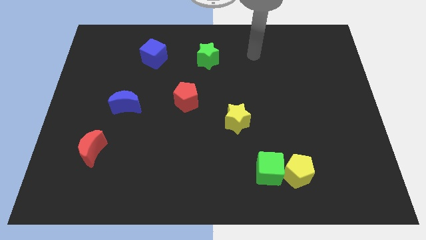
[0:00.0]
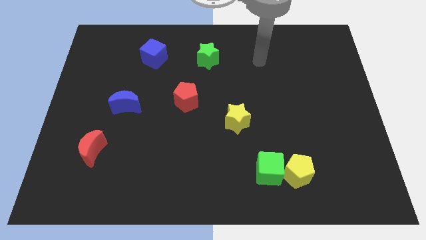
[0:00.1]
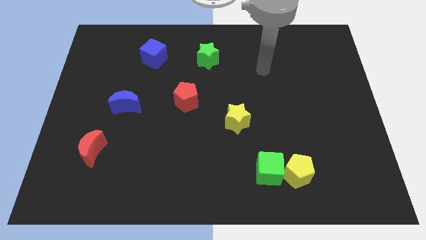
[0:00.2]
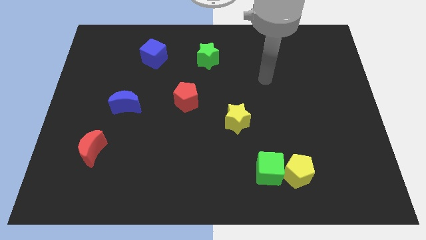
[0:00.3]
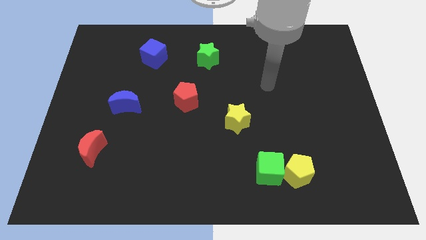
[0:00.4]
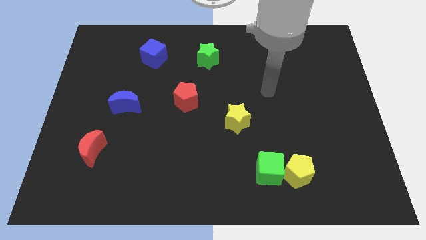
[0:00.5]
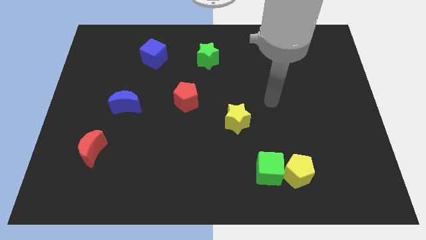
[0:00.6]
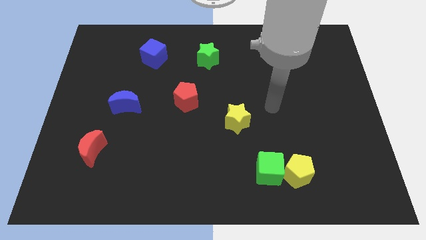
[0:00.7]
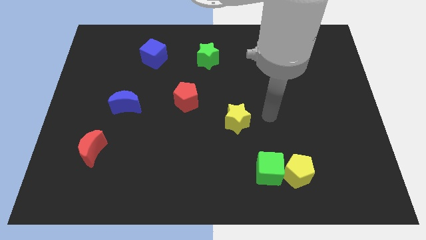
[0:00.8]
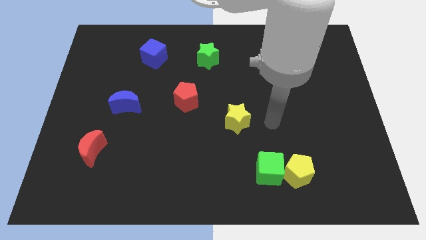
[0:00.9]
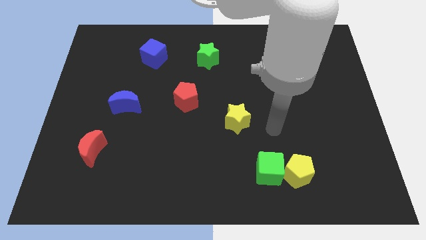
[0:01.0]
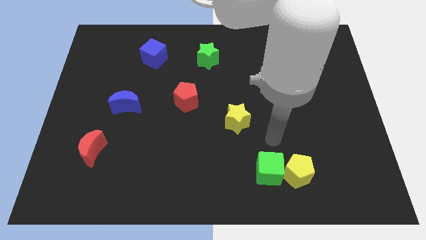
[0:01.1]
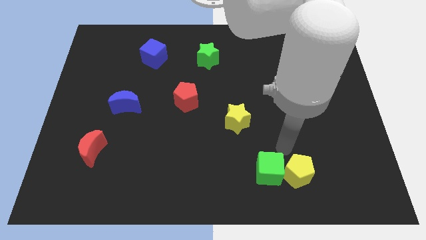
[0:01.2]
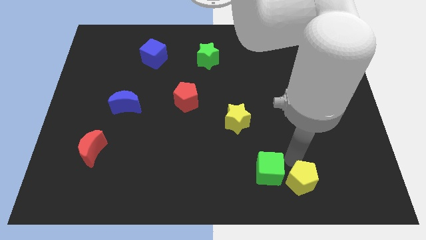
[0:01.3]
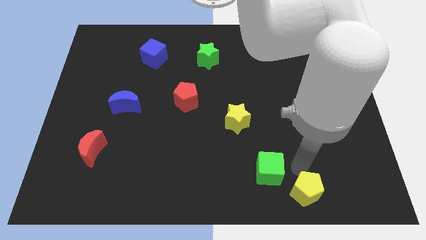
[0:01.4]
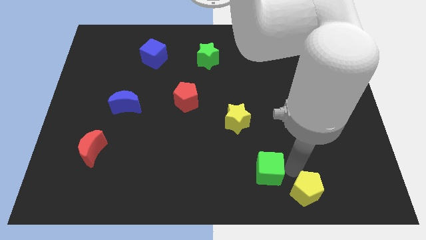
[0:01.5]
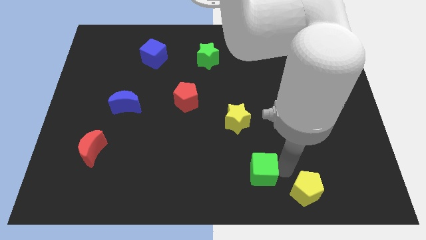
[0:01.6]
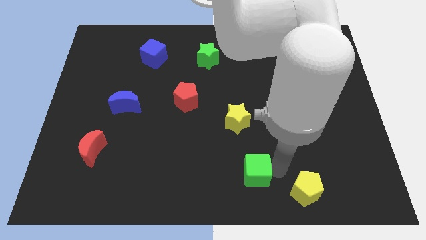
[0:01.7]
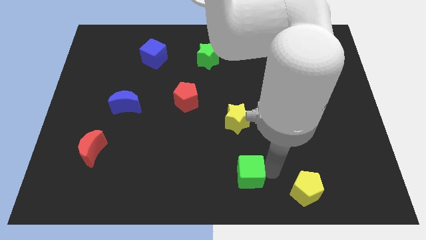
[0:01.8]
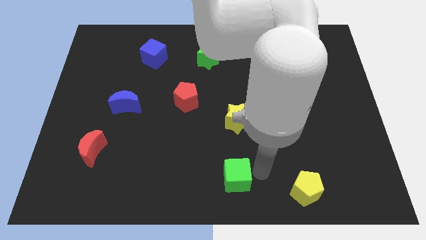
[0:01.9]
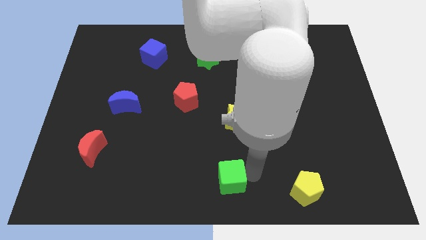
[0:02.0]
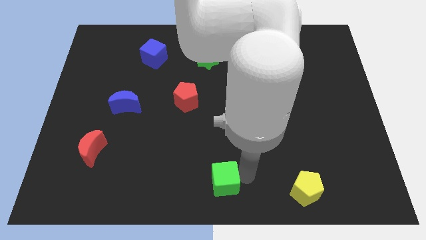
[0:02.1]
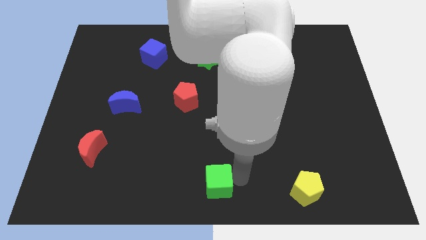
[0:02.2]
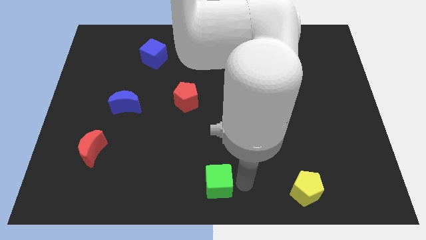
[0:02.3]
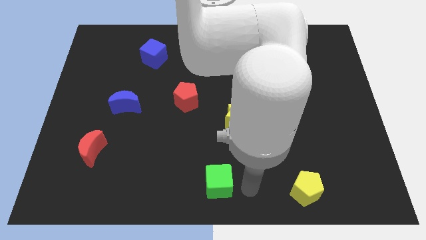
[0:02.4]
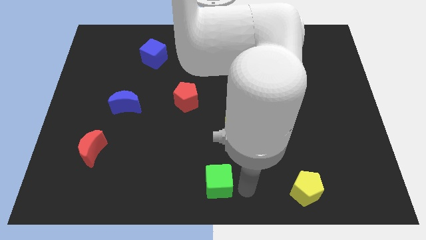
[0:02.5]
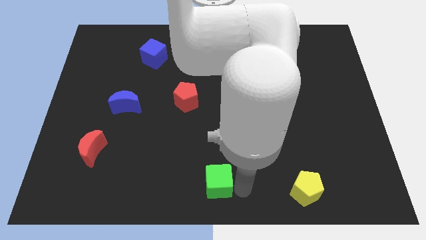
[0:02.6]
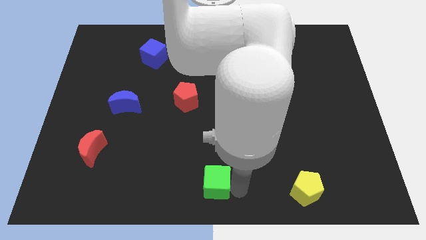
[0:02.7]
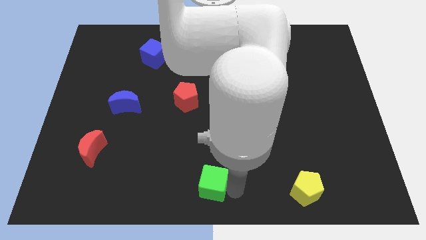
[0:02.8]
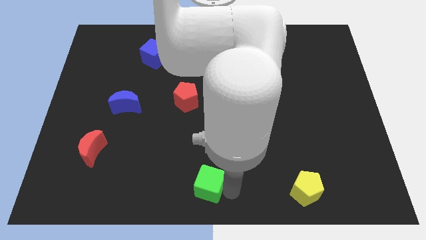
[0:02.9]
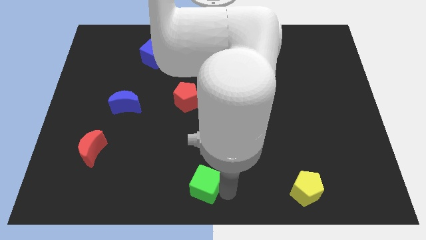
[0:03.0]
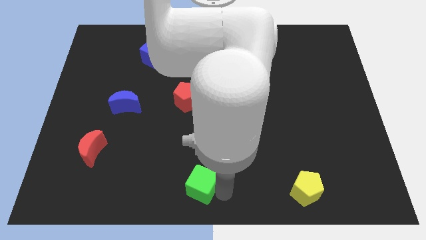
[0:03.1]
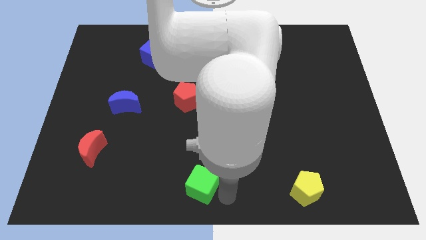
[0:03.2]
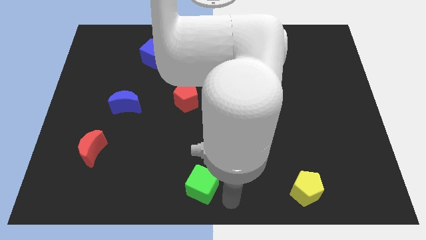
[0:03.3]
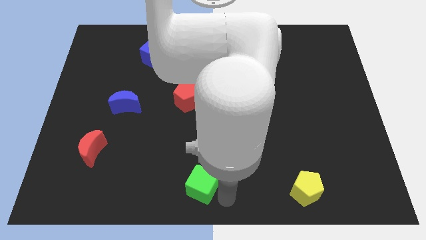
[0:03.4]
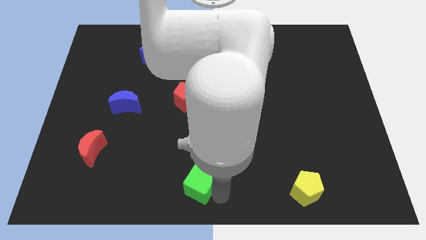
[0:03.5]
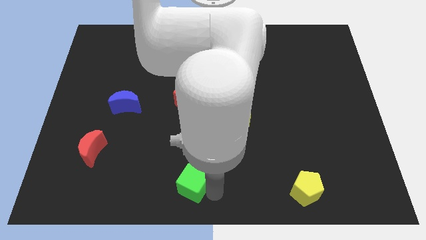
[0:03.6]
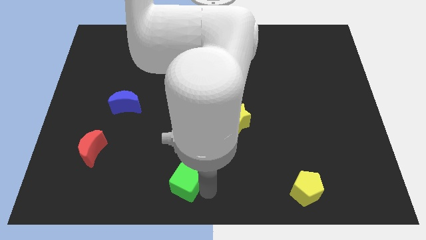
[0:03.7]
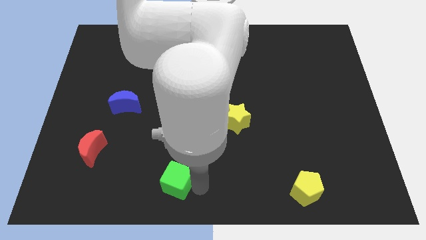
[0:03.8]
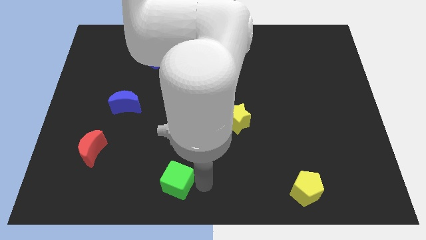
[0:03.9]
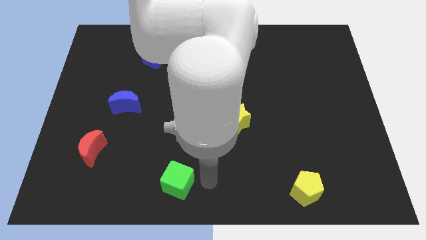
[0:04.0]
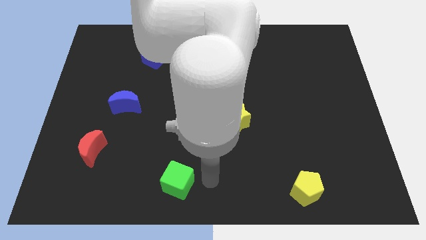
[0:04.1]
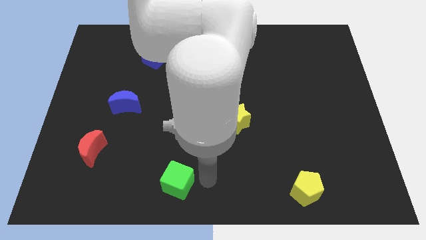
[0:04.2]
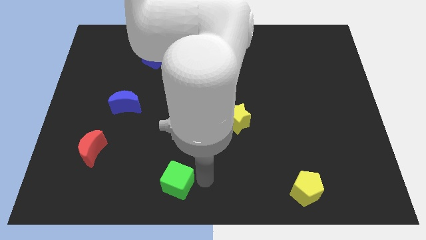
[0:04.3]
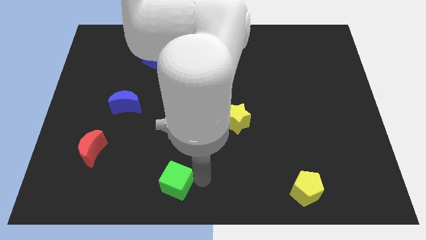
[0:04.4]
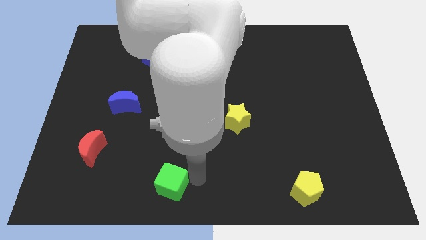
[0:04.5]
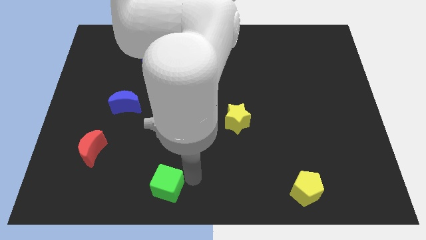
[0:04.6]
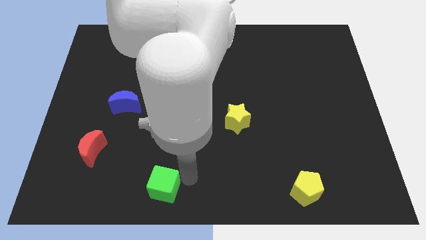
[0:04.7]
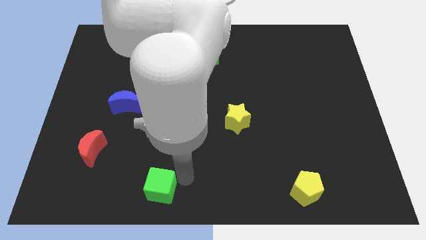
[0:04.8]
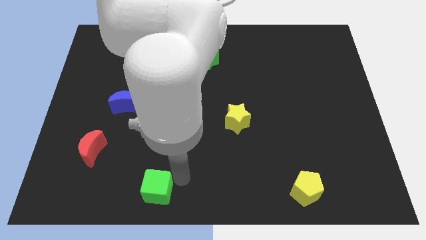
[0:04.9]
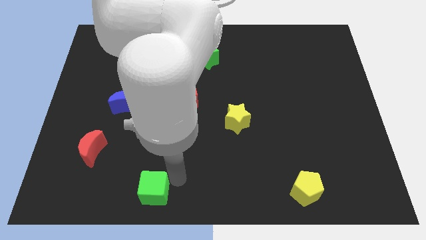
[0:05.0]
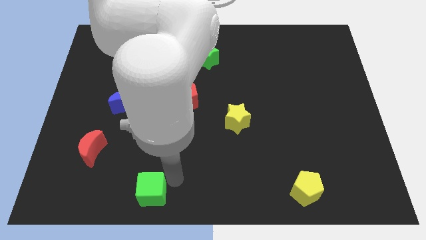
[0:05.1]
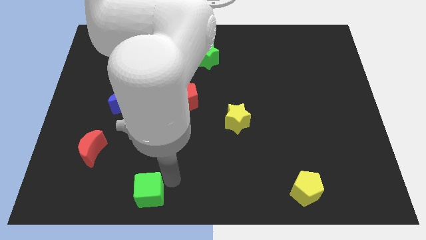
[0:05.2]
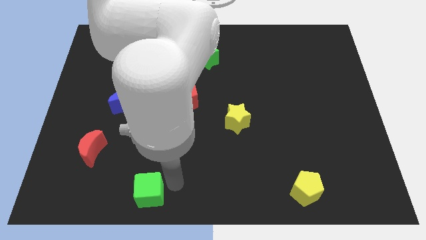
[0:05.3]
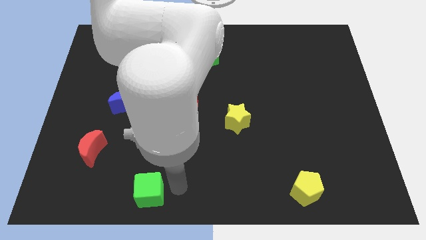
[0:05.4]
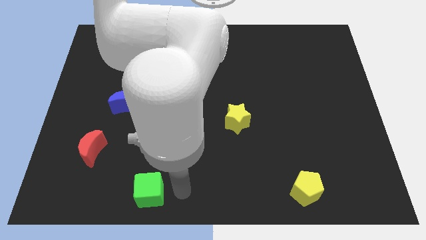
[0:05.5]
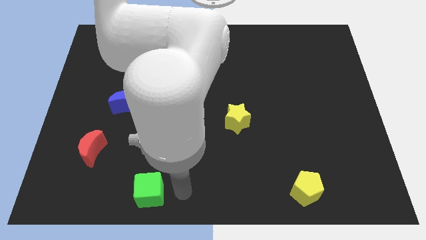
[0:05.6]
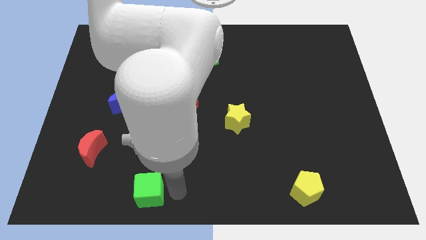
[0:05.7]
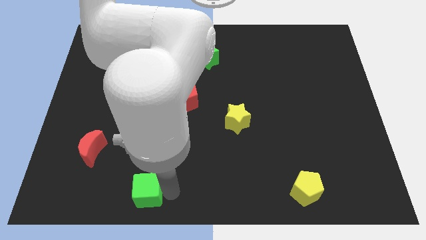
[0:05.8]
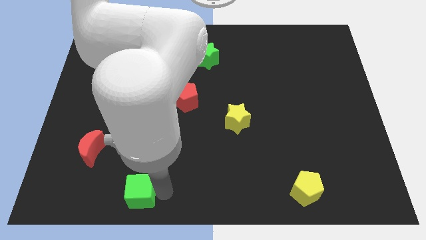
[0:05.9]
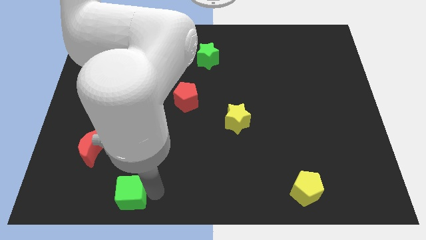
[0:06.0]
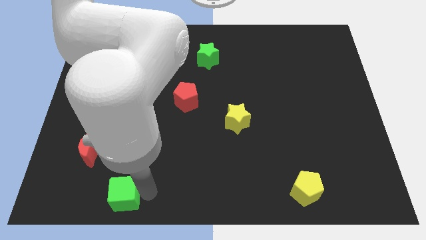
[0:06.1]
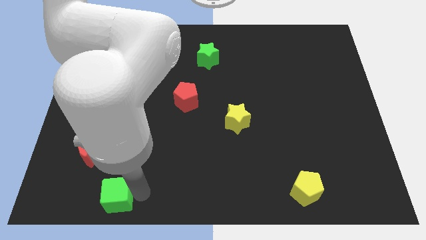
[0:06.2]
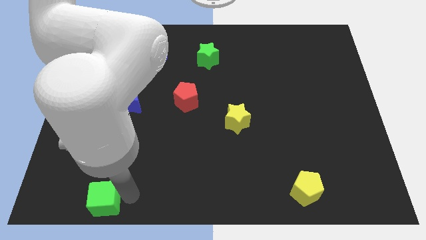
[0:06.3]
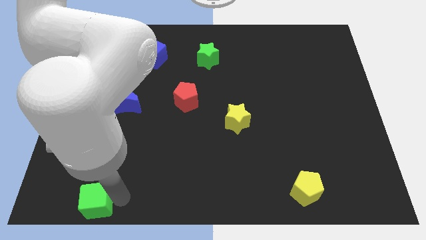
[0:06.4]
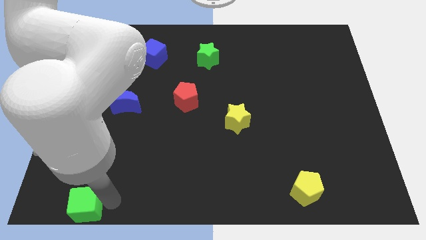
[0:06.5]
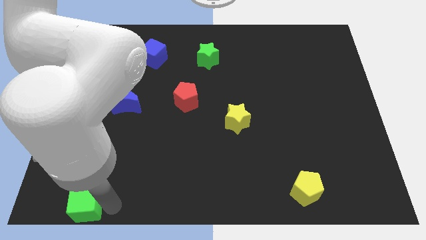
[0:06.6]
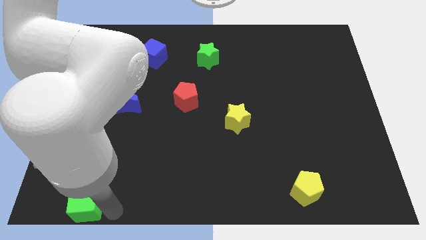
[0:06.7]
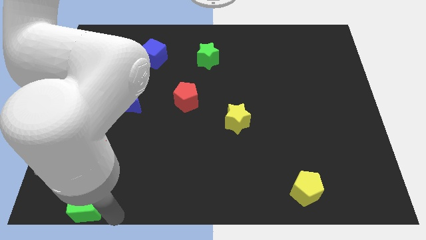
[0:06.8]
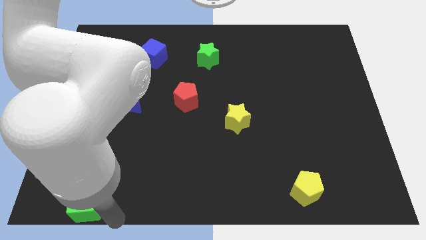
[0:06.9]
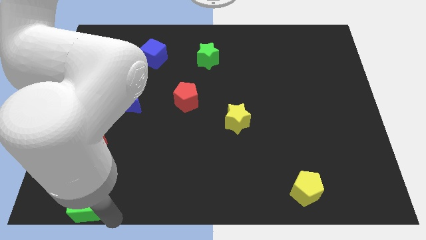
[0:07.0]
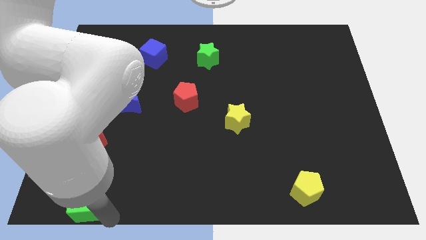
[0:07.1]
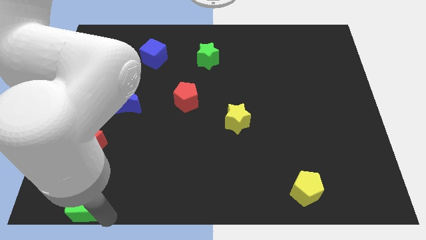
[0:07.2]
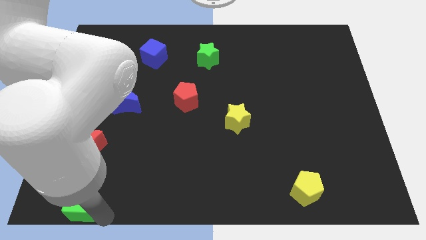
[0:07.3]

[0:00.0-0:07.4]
push the green cube to the bottom left corner
